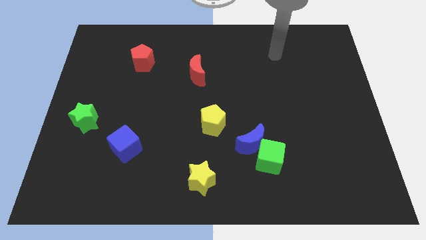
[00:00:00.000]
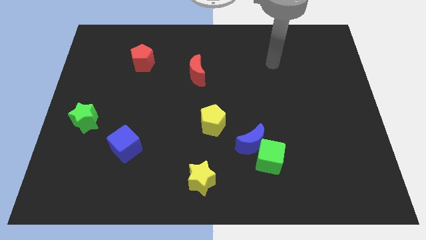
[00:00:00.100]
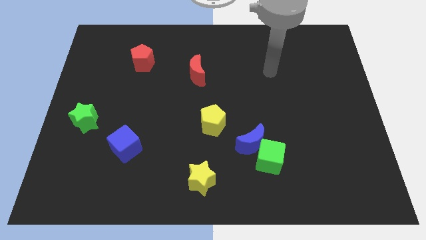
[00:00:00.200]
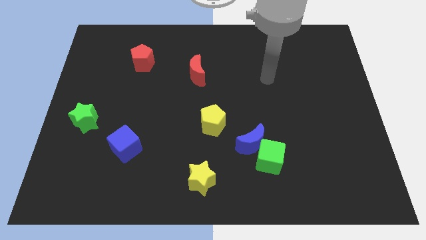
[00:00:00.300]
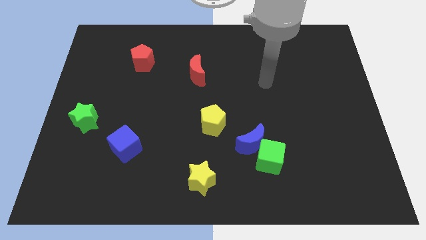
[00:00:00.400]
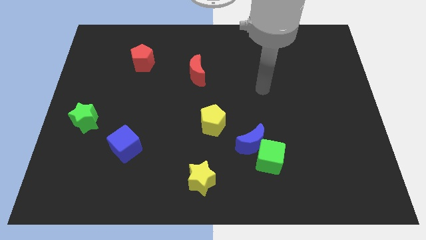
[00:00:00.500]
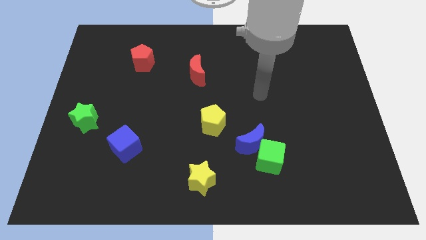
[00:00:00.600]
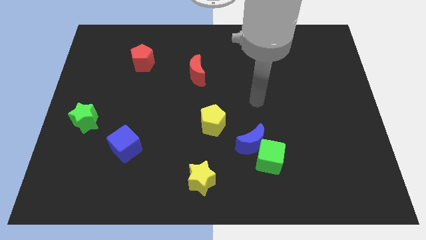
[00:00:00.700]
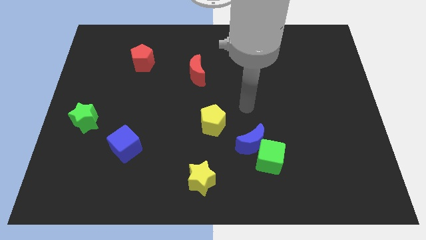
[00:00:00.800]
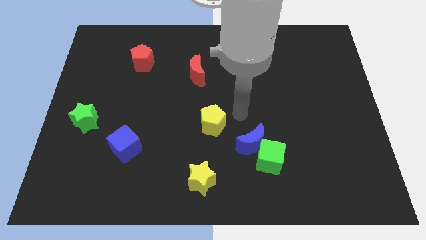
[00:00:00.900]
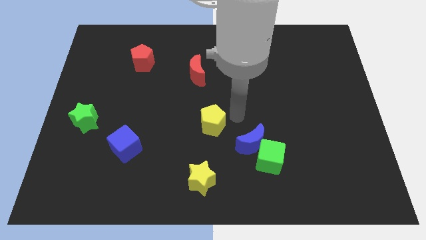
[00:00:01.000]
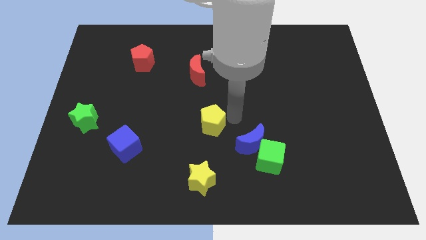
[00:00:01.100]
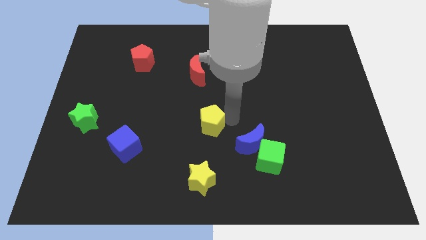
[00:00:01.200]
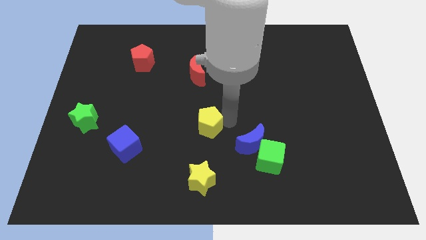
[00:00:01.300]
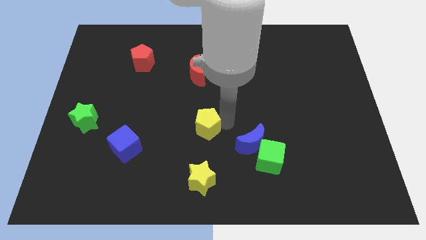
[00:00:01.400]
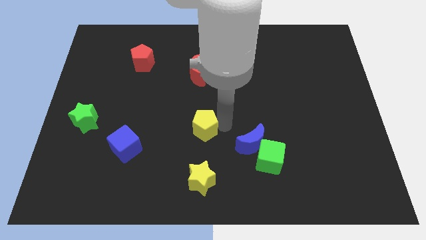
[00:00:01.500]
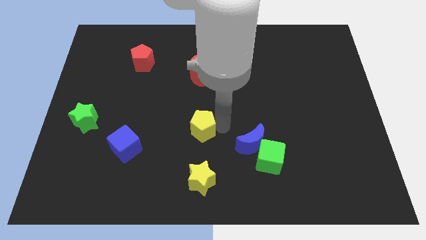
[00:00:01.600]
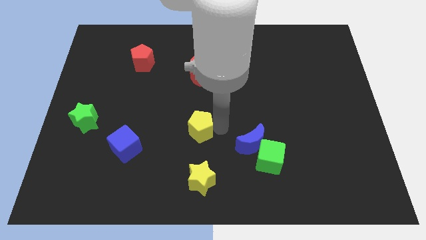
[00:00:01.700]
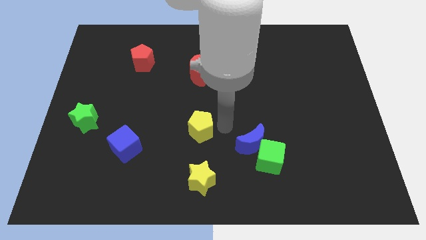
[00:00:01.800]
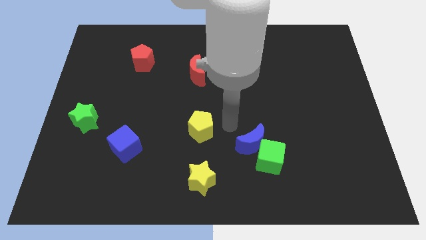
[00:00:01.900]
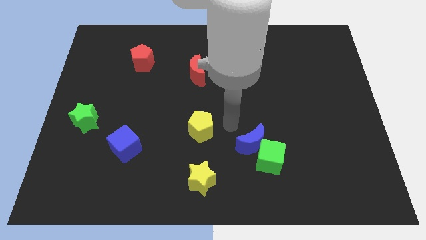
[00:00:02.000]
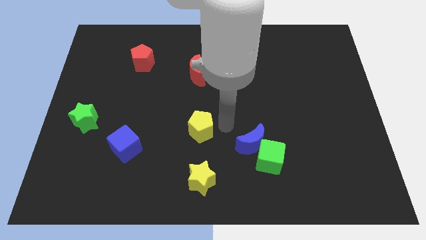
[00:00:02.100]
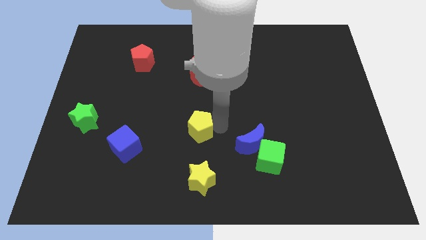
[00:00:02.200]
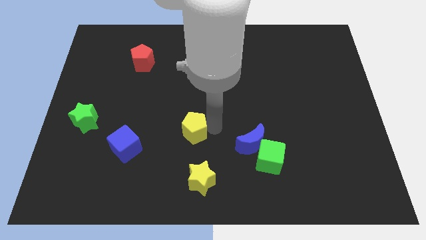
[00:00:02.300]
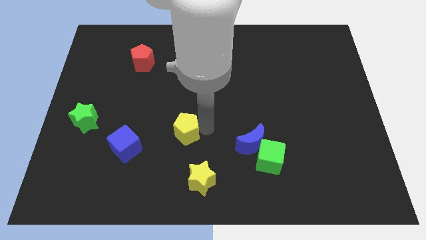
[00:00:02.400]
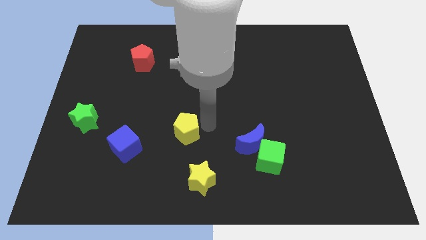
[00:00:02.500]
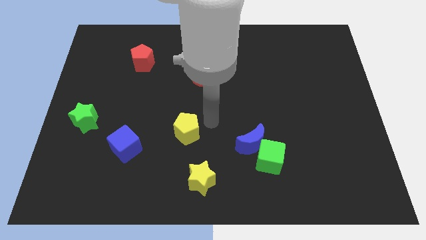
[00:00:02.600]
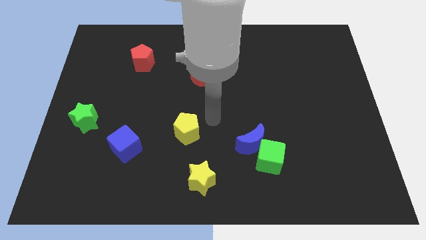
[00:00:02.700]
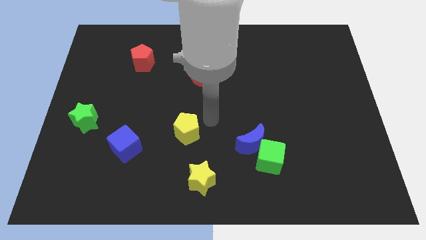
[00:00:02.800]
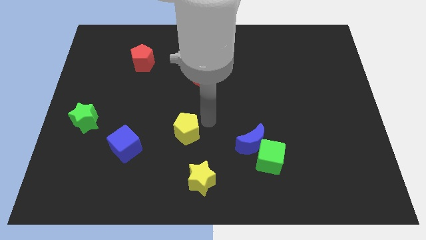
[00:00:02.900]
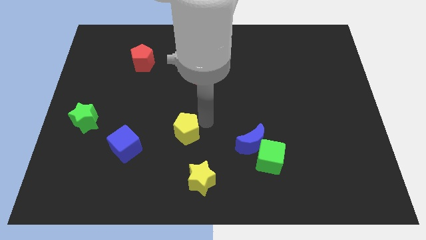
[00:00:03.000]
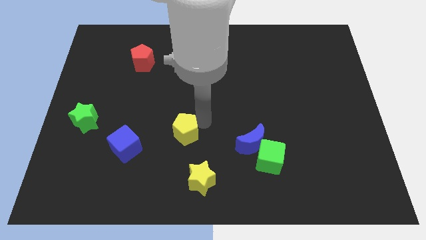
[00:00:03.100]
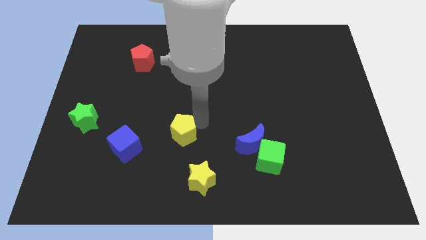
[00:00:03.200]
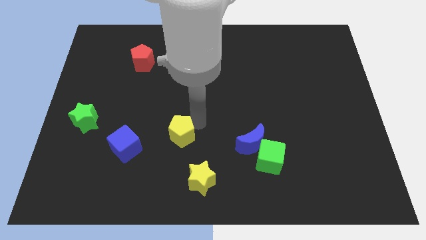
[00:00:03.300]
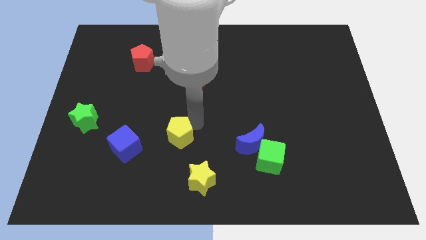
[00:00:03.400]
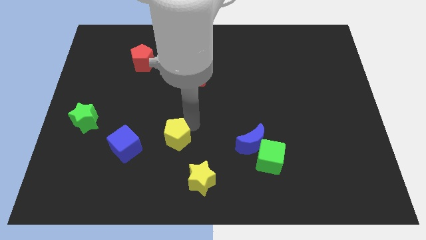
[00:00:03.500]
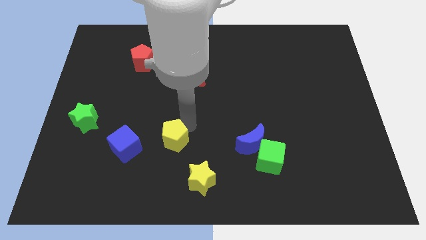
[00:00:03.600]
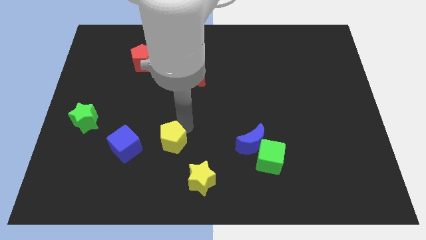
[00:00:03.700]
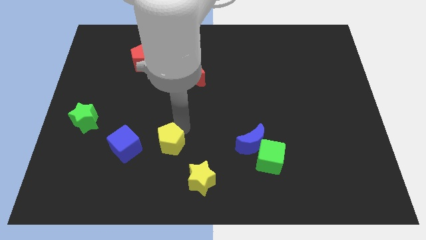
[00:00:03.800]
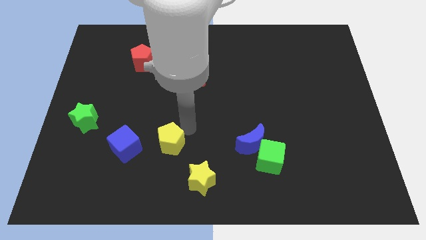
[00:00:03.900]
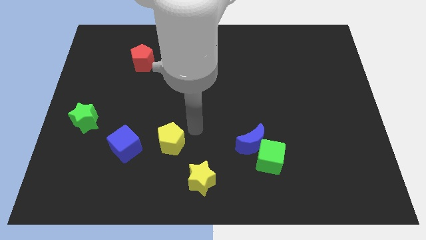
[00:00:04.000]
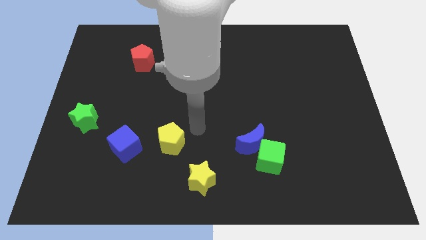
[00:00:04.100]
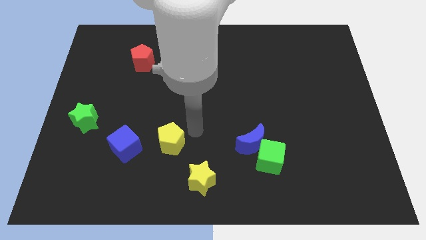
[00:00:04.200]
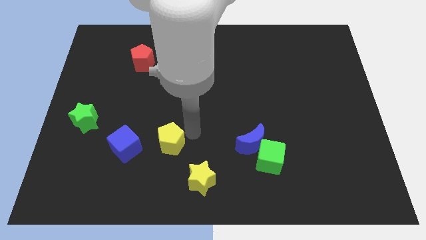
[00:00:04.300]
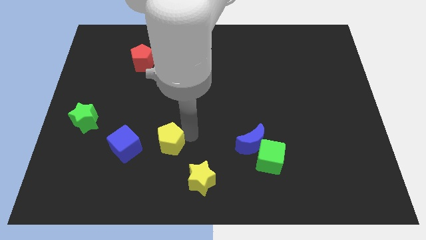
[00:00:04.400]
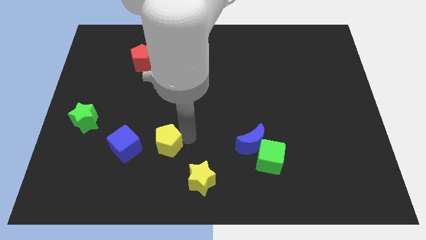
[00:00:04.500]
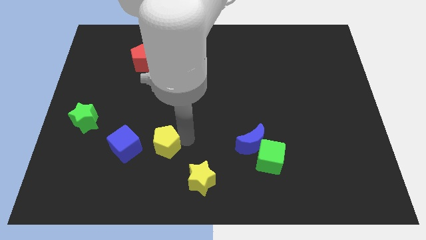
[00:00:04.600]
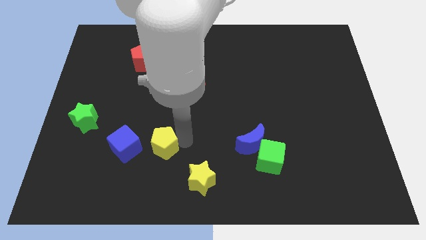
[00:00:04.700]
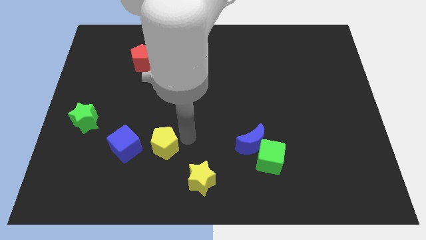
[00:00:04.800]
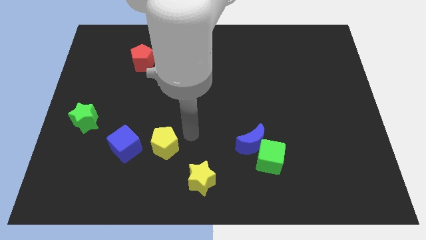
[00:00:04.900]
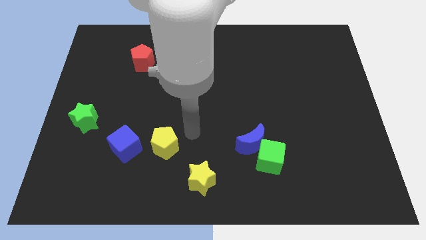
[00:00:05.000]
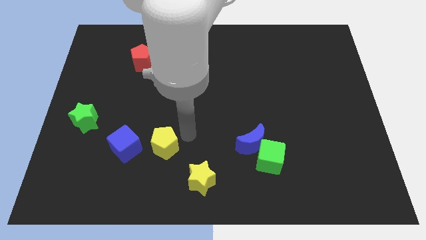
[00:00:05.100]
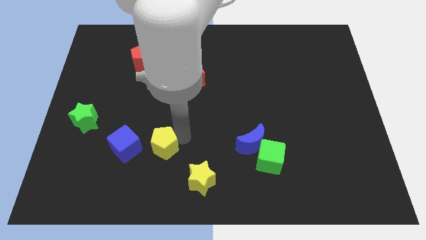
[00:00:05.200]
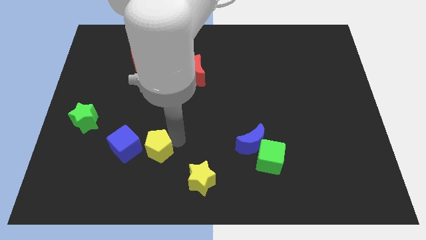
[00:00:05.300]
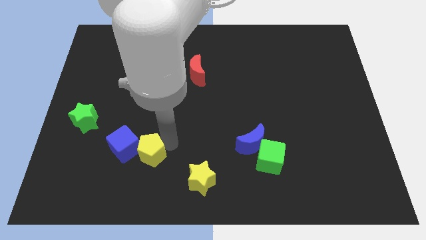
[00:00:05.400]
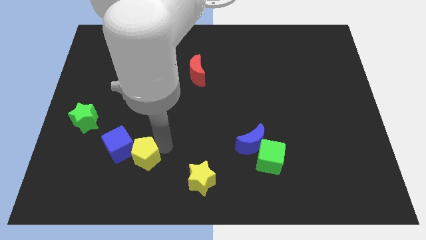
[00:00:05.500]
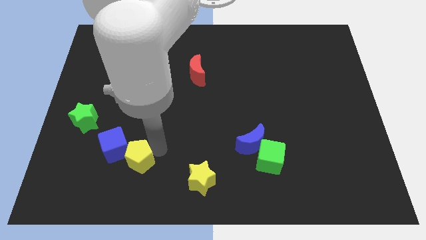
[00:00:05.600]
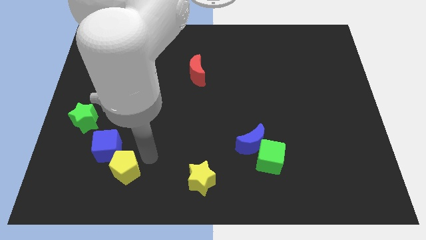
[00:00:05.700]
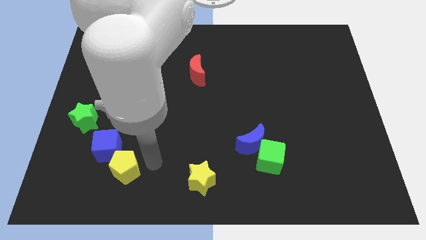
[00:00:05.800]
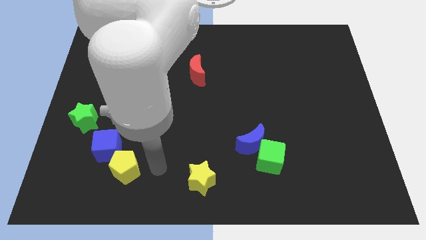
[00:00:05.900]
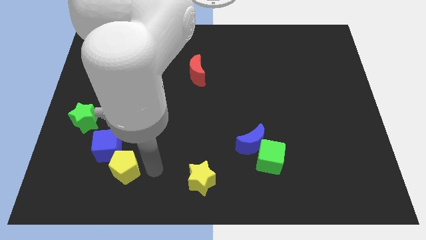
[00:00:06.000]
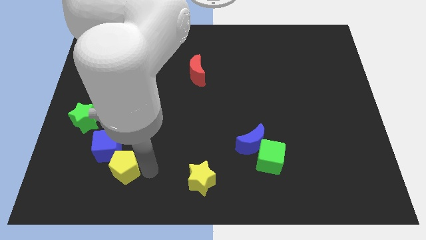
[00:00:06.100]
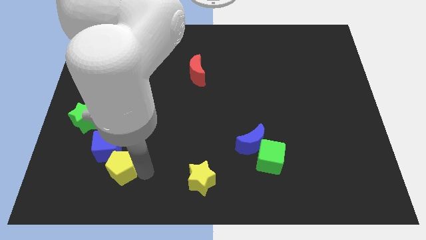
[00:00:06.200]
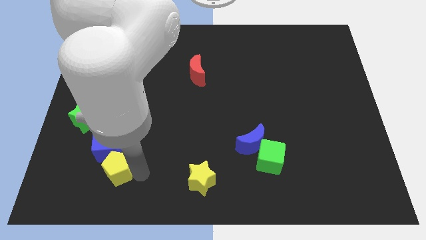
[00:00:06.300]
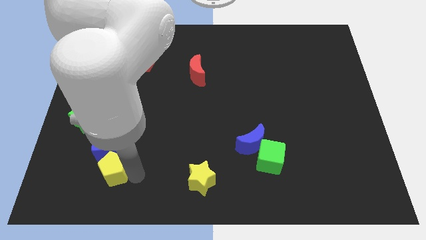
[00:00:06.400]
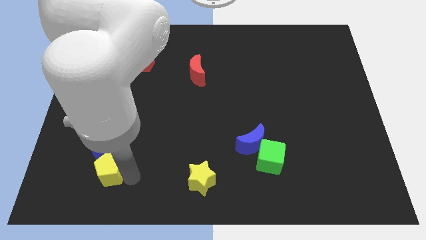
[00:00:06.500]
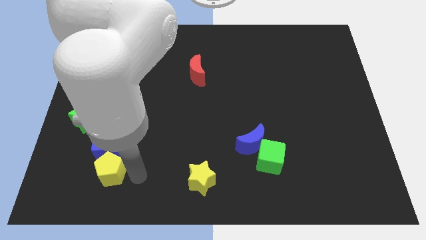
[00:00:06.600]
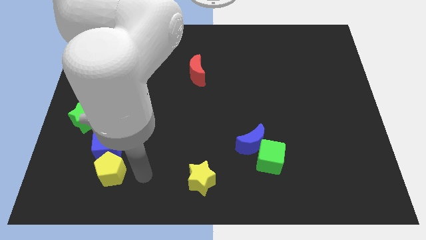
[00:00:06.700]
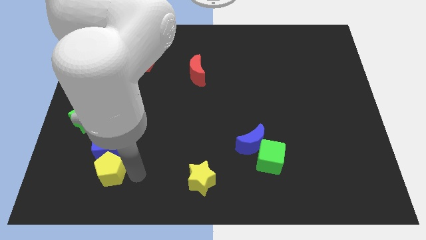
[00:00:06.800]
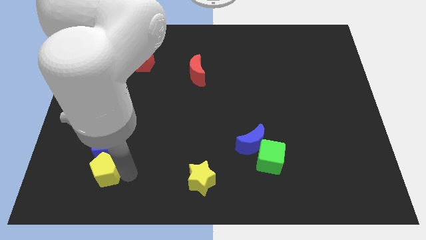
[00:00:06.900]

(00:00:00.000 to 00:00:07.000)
slide the yellow pentagon to the bottom left of the blue cube

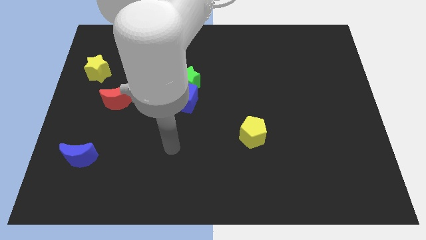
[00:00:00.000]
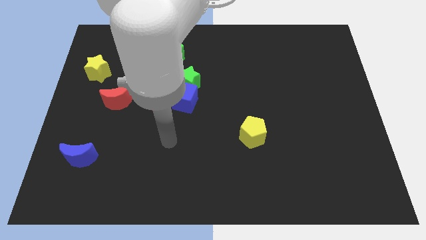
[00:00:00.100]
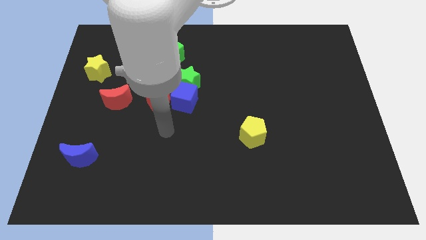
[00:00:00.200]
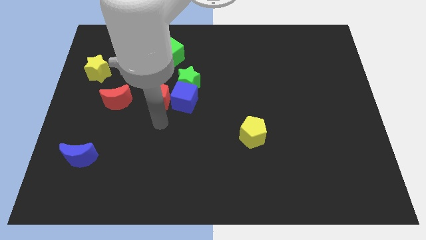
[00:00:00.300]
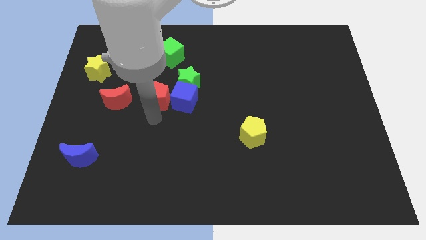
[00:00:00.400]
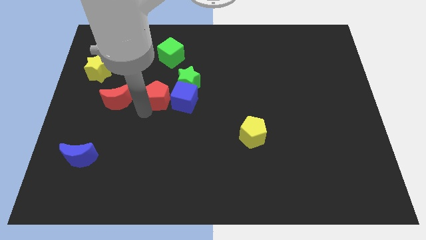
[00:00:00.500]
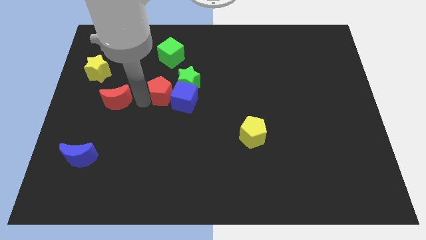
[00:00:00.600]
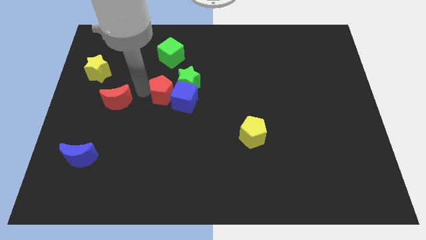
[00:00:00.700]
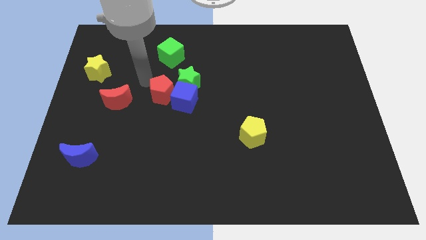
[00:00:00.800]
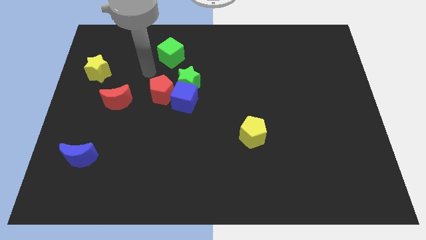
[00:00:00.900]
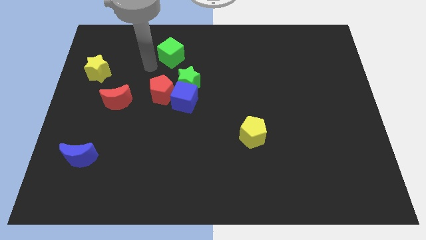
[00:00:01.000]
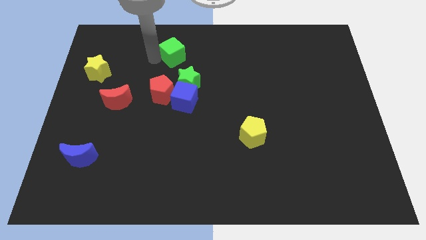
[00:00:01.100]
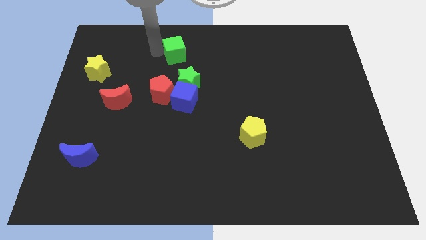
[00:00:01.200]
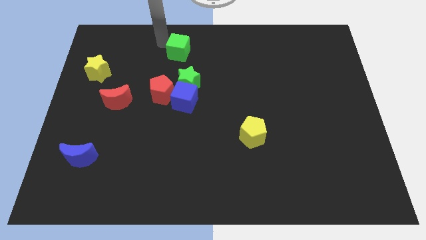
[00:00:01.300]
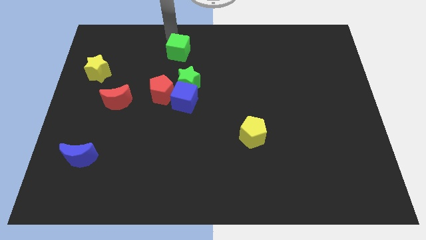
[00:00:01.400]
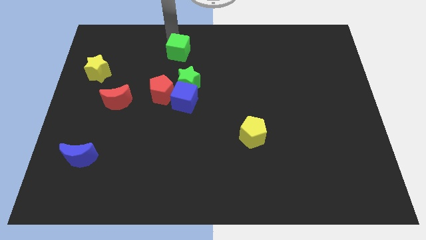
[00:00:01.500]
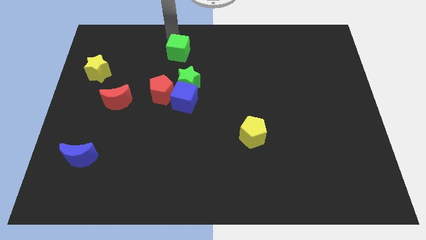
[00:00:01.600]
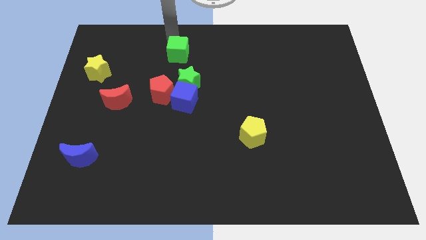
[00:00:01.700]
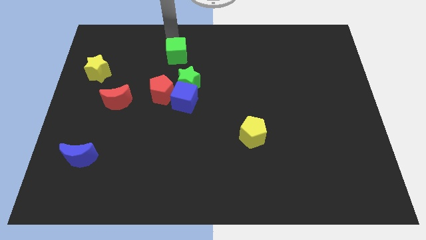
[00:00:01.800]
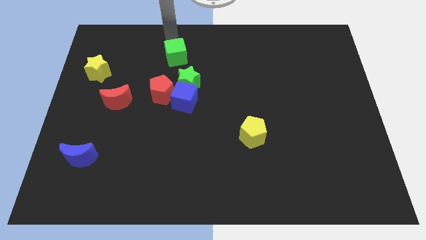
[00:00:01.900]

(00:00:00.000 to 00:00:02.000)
move the green cube to the top side of the blue cube
